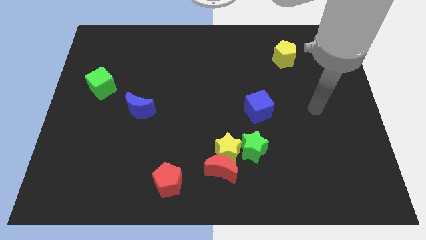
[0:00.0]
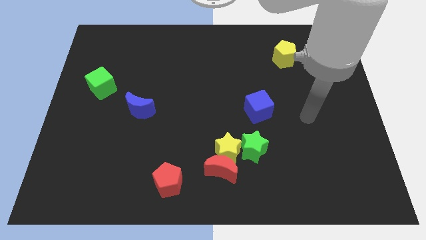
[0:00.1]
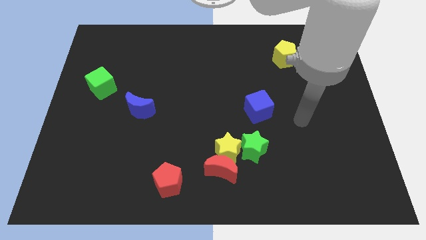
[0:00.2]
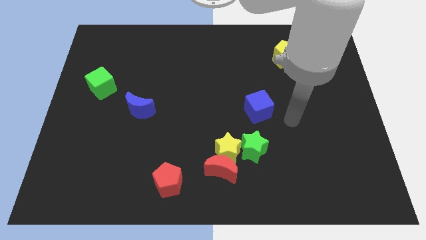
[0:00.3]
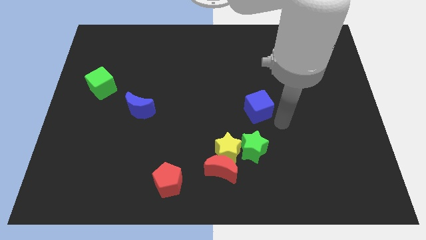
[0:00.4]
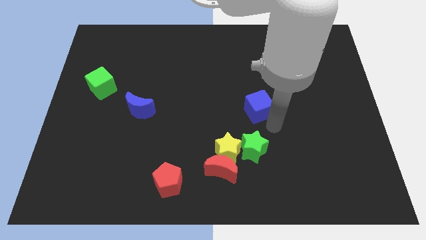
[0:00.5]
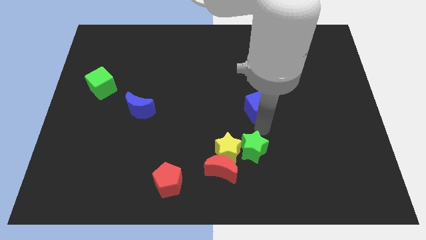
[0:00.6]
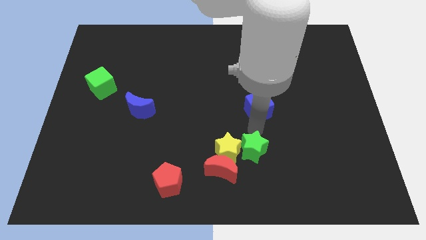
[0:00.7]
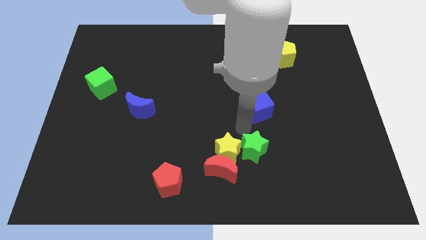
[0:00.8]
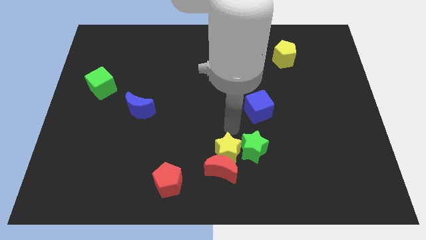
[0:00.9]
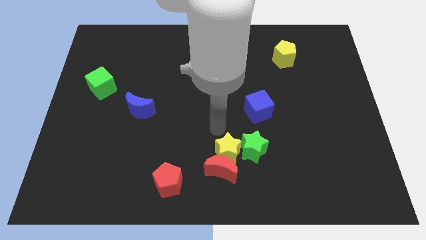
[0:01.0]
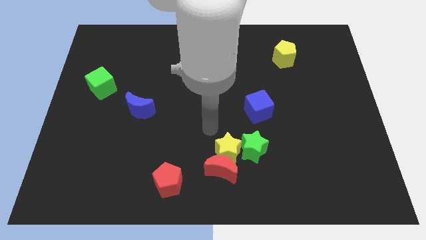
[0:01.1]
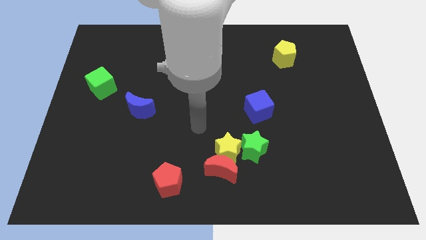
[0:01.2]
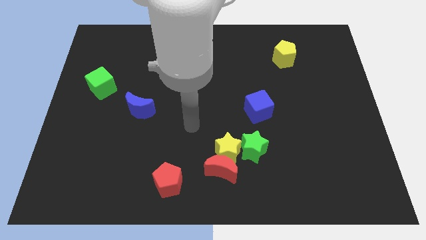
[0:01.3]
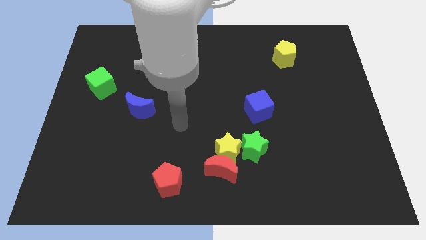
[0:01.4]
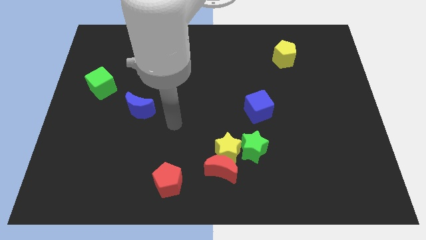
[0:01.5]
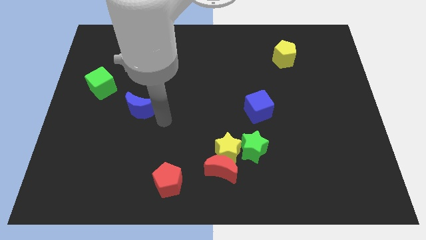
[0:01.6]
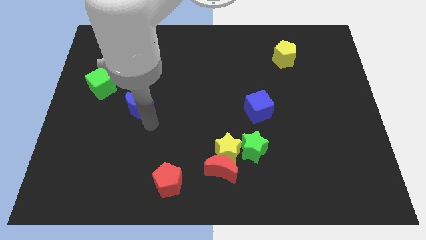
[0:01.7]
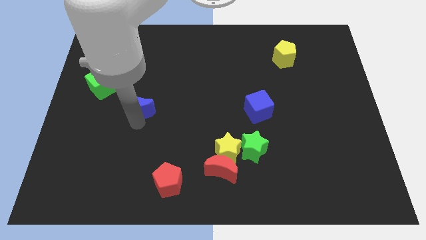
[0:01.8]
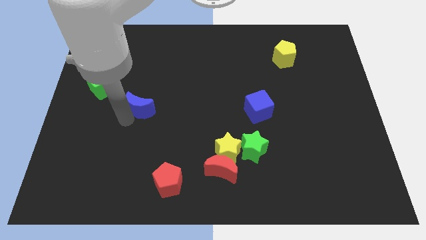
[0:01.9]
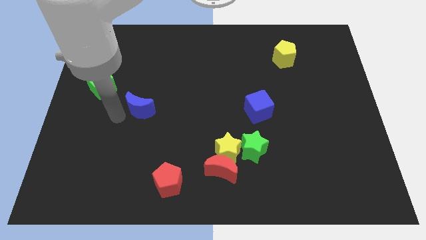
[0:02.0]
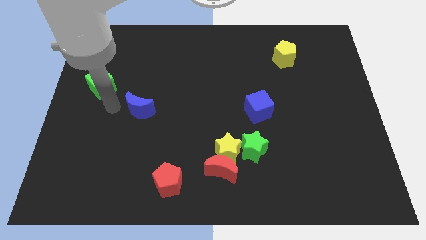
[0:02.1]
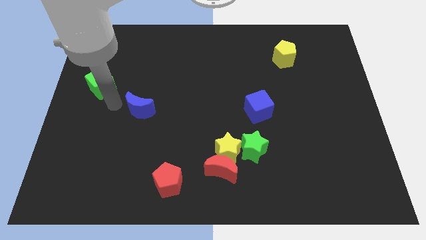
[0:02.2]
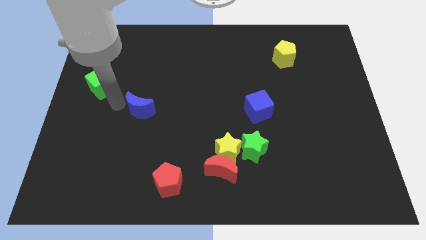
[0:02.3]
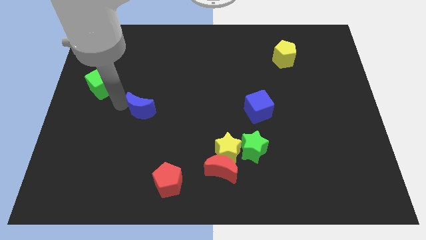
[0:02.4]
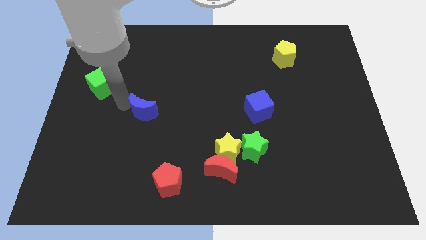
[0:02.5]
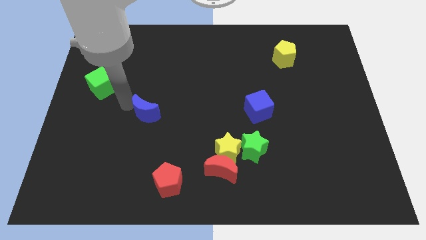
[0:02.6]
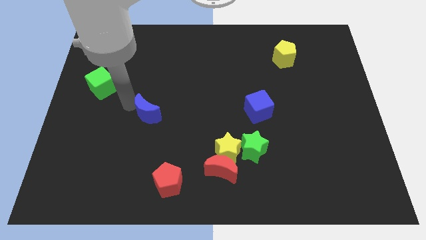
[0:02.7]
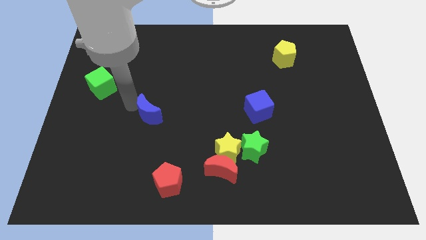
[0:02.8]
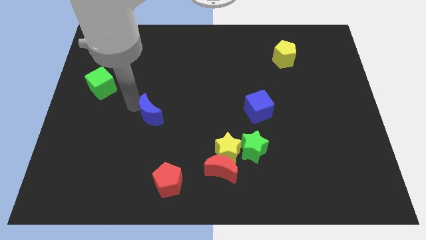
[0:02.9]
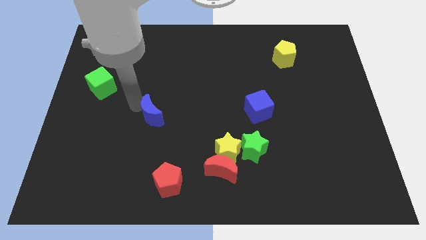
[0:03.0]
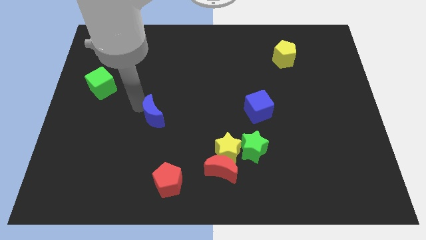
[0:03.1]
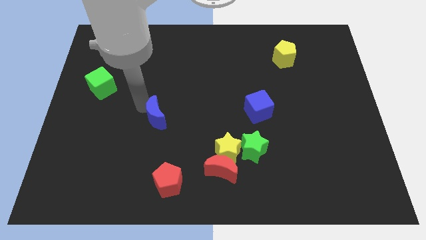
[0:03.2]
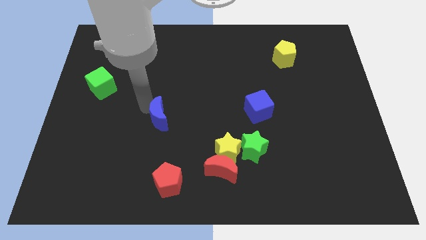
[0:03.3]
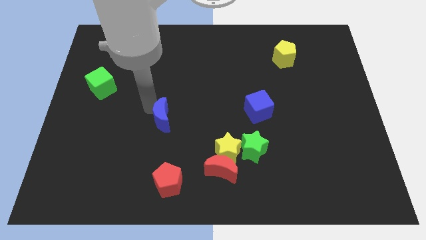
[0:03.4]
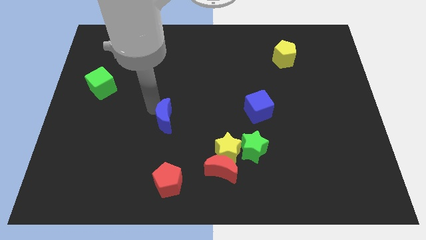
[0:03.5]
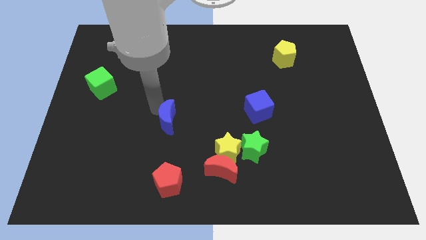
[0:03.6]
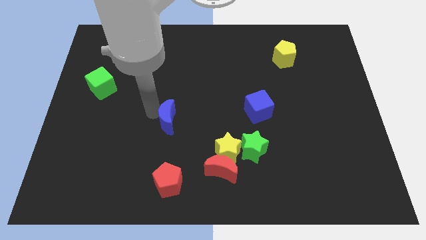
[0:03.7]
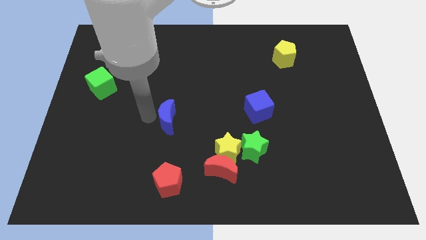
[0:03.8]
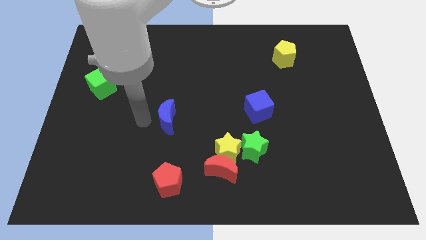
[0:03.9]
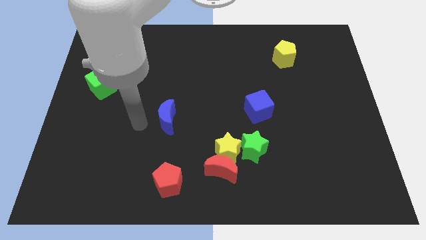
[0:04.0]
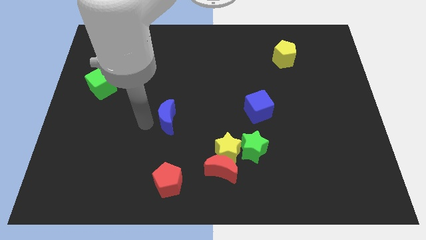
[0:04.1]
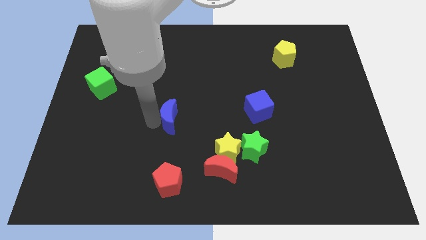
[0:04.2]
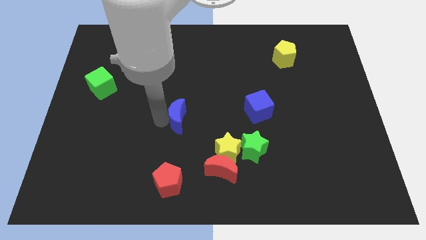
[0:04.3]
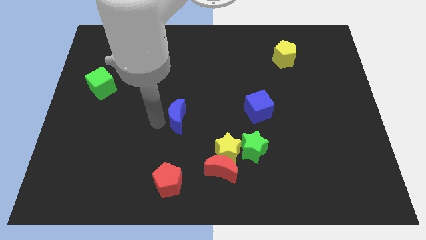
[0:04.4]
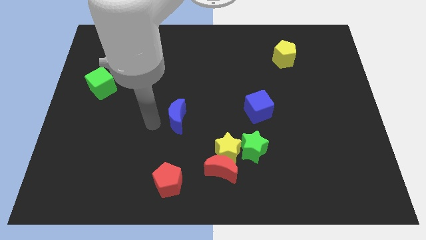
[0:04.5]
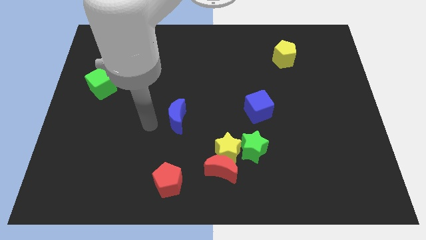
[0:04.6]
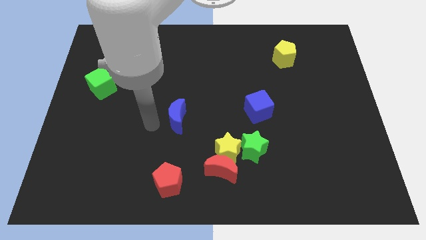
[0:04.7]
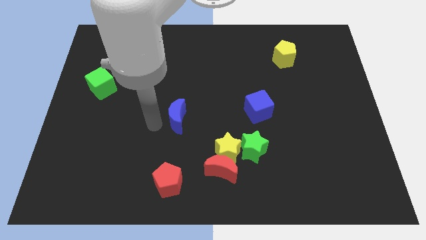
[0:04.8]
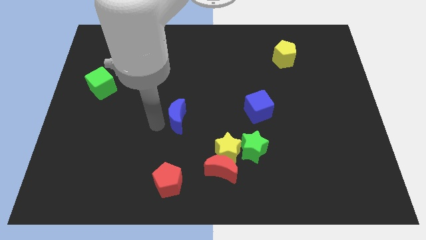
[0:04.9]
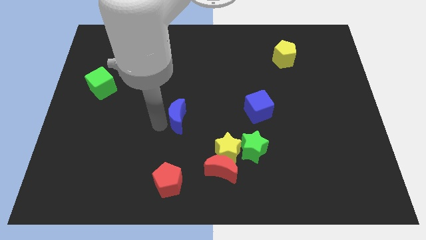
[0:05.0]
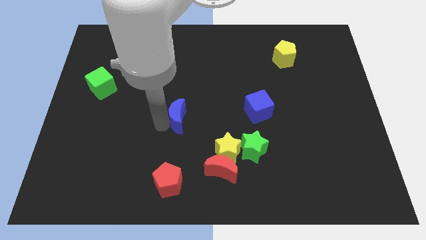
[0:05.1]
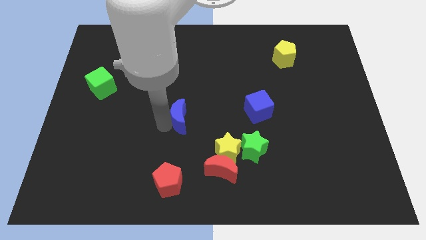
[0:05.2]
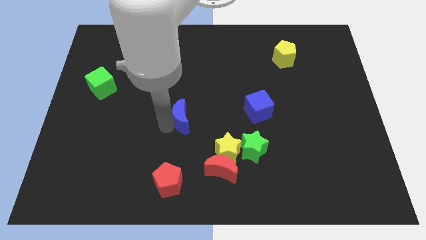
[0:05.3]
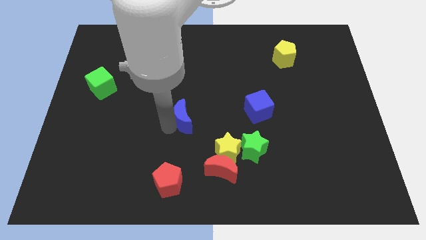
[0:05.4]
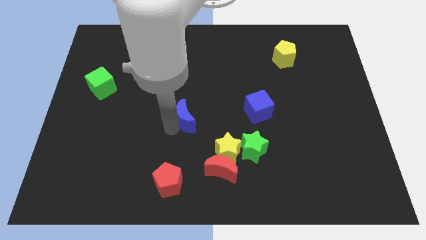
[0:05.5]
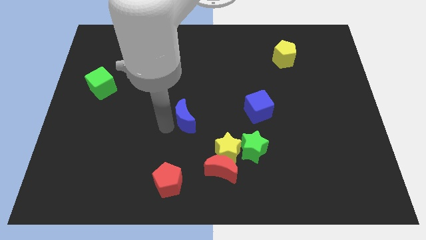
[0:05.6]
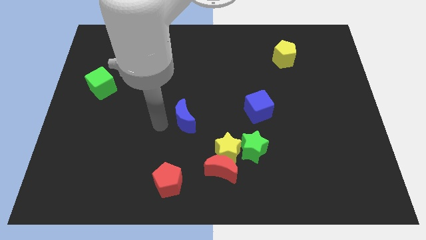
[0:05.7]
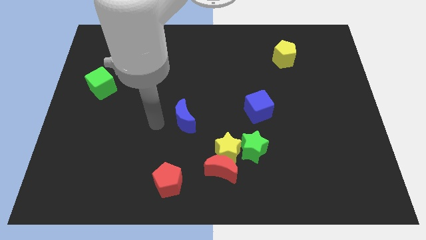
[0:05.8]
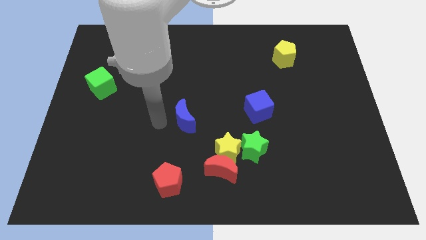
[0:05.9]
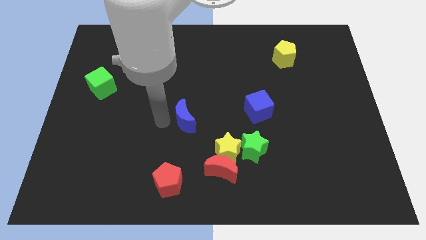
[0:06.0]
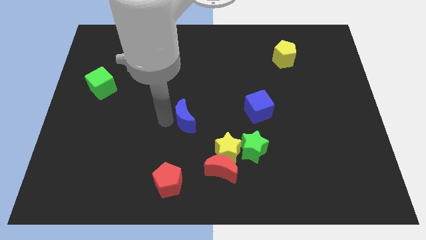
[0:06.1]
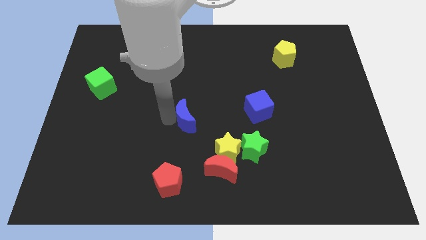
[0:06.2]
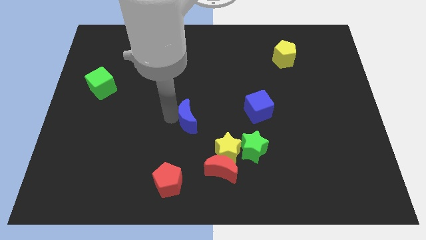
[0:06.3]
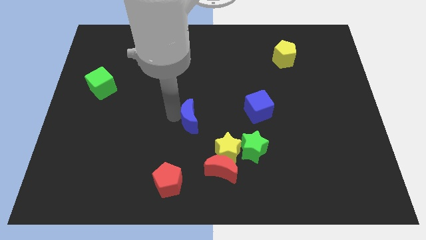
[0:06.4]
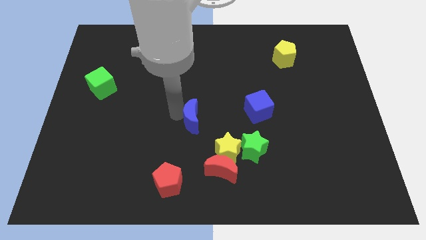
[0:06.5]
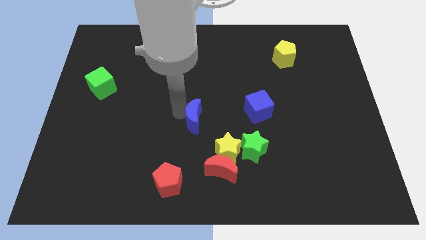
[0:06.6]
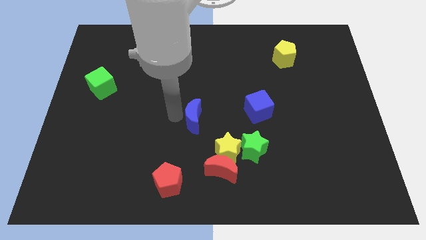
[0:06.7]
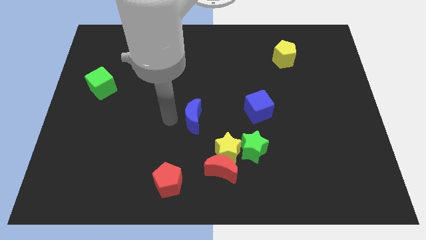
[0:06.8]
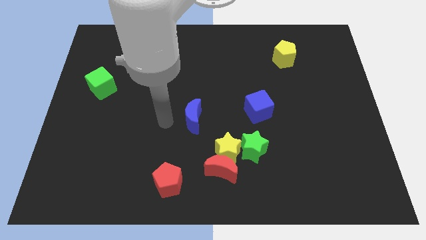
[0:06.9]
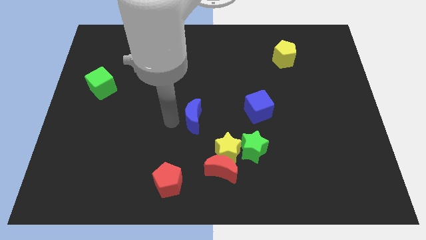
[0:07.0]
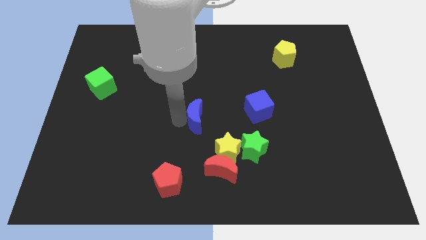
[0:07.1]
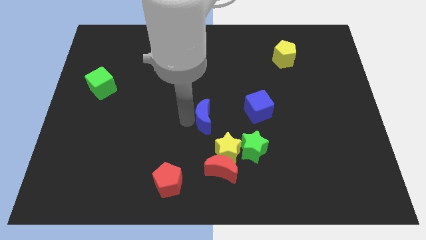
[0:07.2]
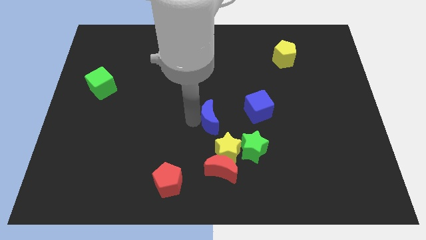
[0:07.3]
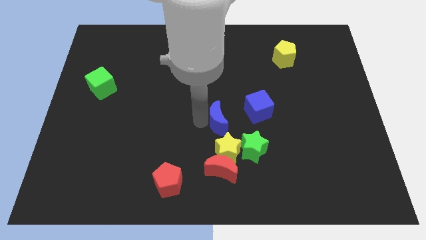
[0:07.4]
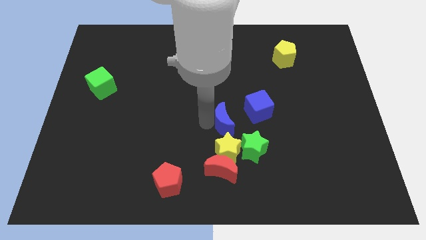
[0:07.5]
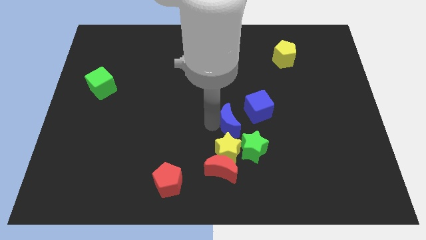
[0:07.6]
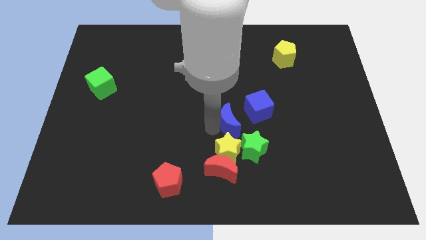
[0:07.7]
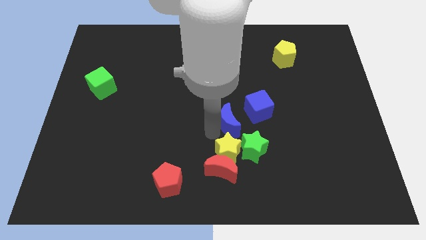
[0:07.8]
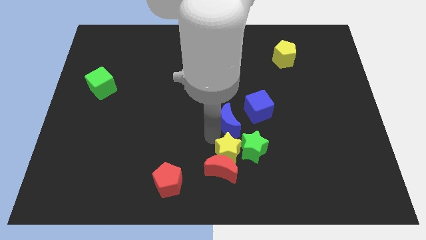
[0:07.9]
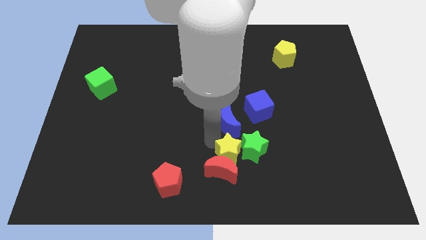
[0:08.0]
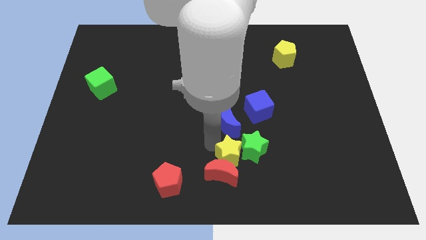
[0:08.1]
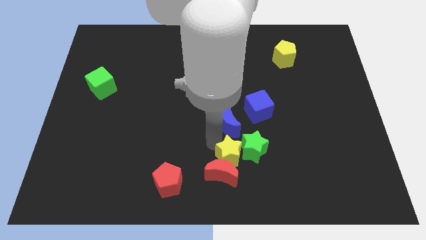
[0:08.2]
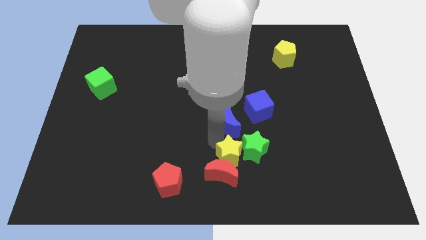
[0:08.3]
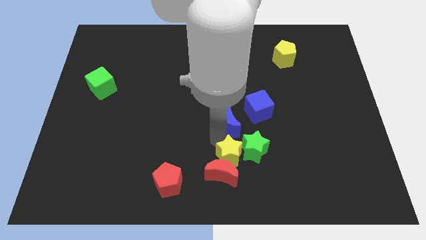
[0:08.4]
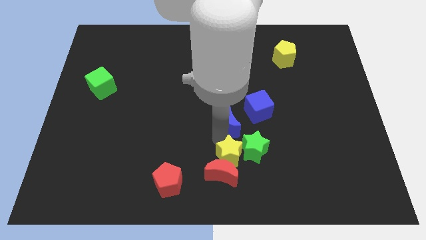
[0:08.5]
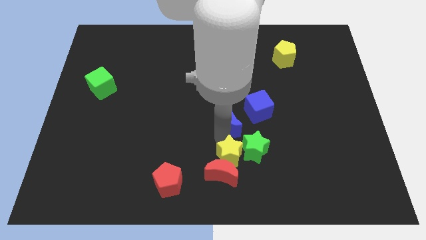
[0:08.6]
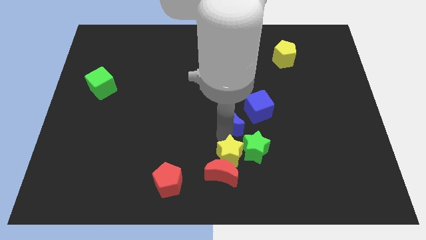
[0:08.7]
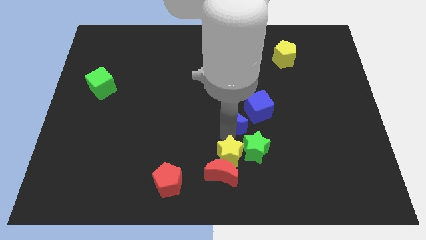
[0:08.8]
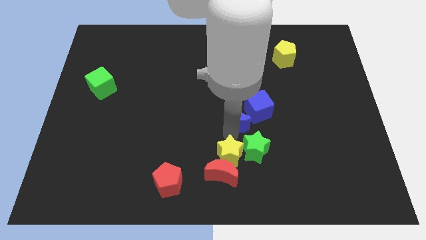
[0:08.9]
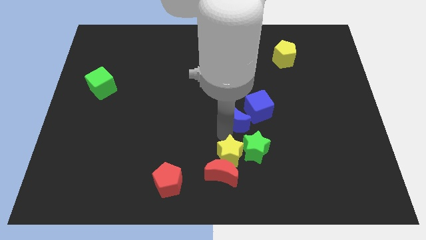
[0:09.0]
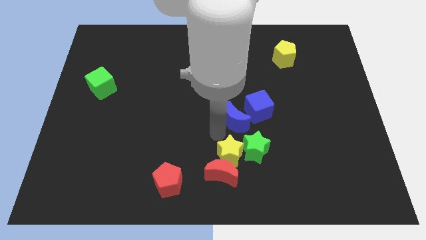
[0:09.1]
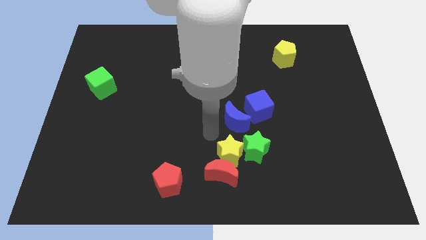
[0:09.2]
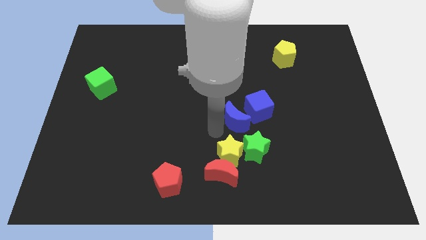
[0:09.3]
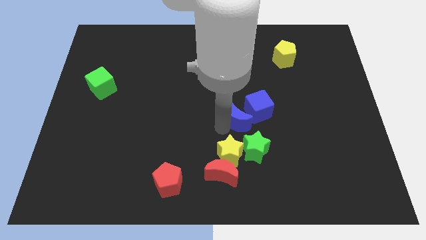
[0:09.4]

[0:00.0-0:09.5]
move the blue moon towards the blue cube
